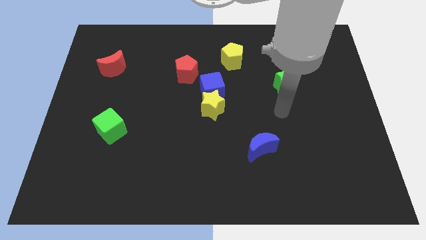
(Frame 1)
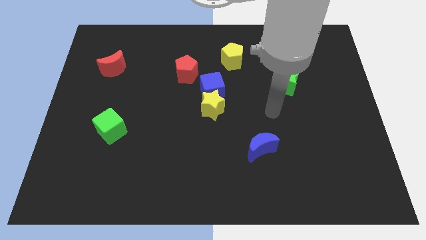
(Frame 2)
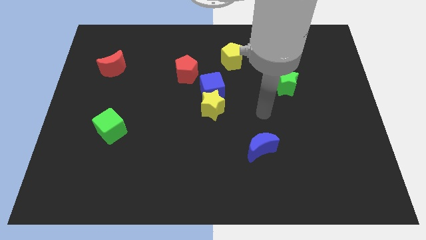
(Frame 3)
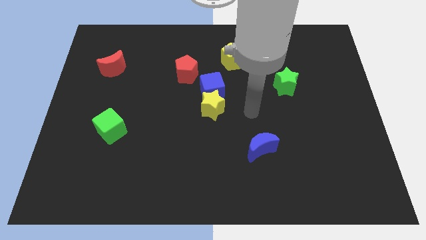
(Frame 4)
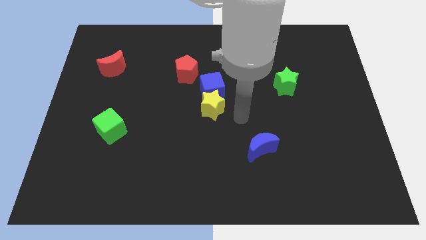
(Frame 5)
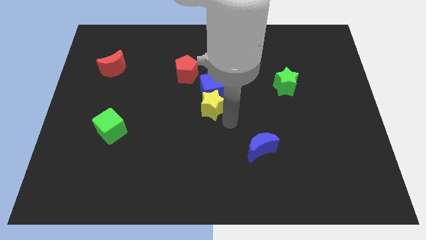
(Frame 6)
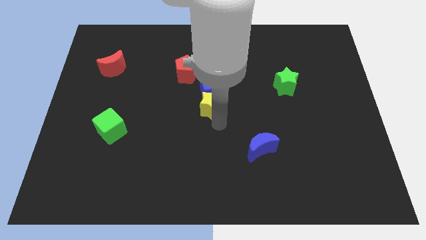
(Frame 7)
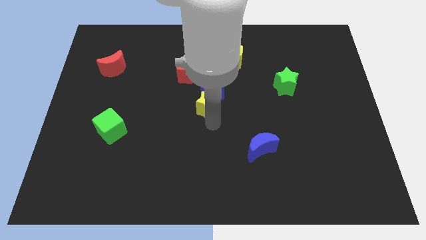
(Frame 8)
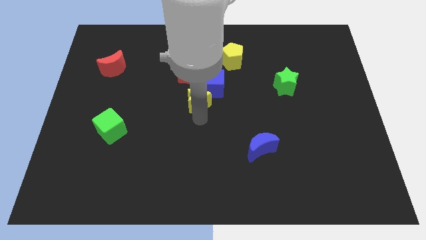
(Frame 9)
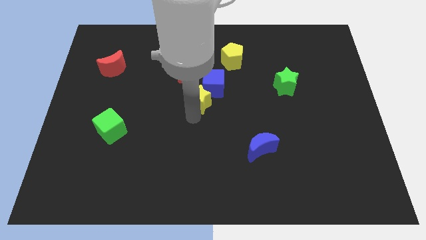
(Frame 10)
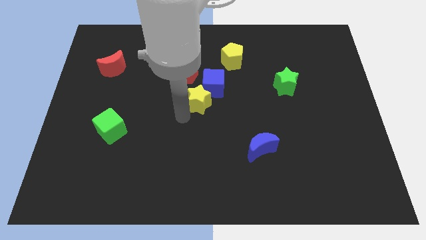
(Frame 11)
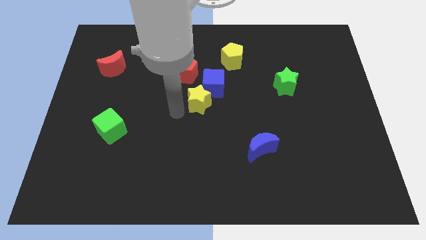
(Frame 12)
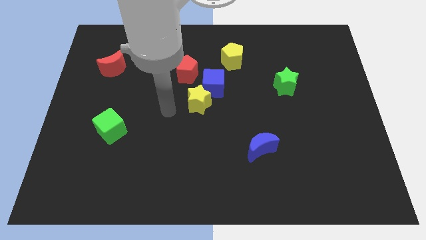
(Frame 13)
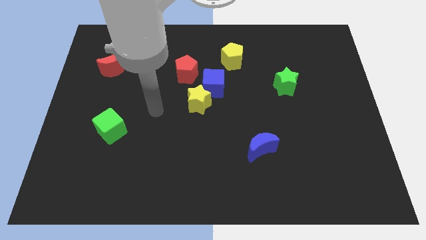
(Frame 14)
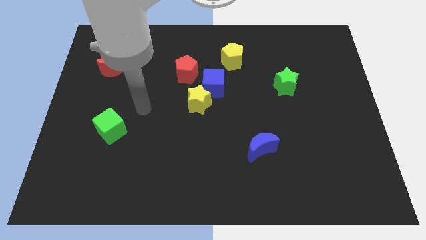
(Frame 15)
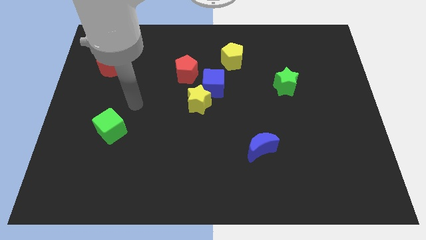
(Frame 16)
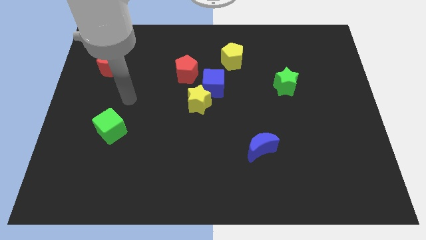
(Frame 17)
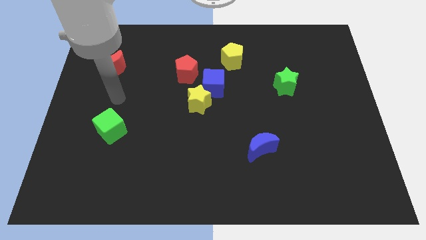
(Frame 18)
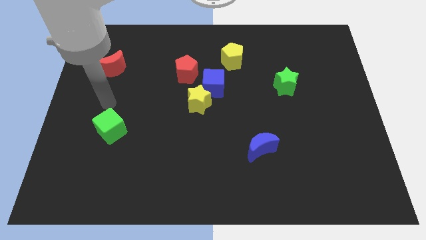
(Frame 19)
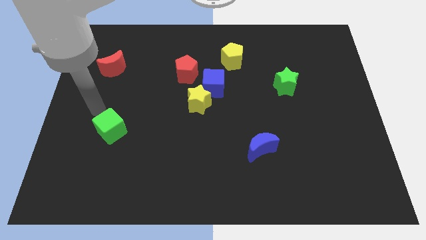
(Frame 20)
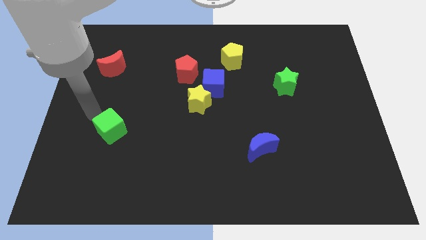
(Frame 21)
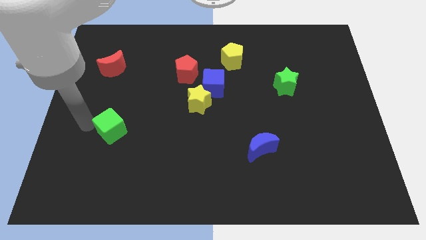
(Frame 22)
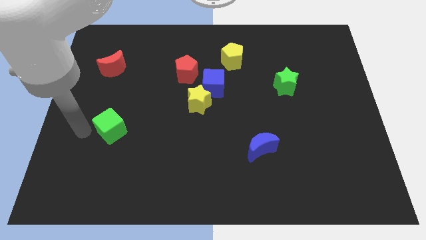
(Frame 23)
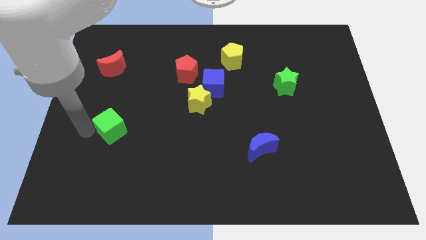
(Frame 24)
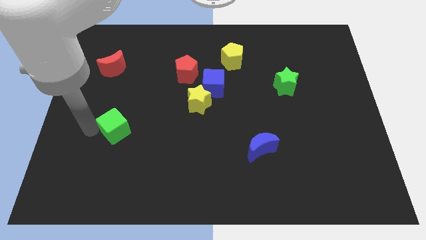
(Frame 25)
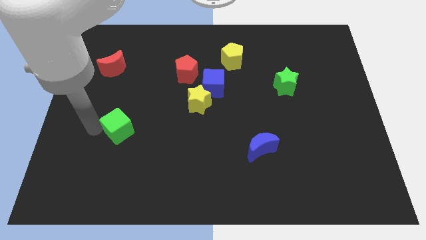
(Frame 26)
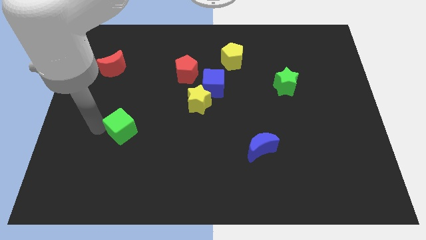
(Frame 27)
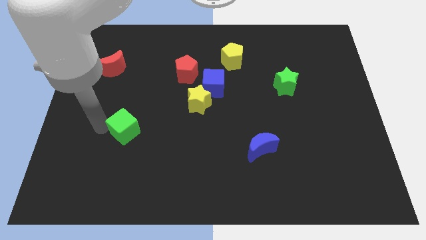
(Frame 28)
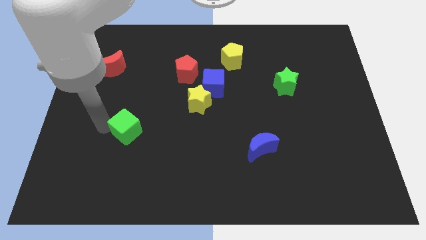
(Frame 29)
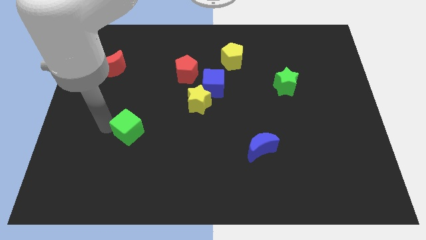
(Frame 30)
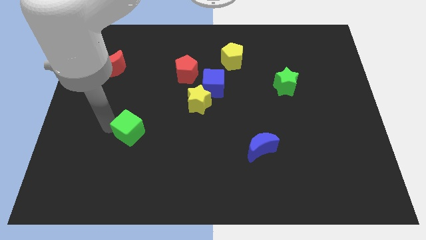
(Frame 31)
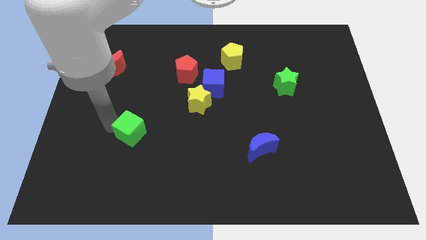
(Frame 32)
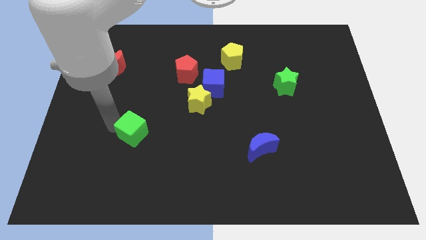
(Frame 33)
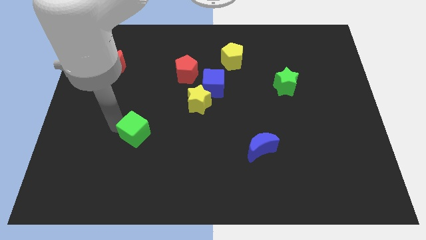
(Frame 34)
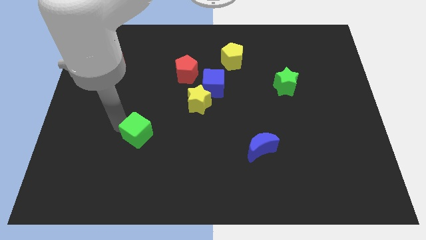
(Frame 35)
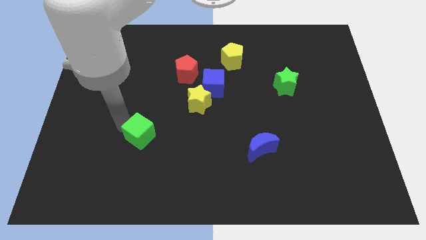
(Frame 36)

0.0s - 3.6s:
slightly slide the green cube to the right

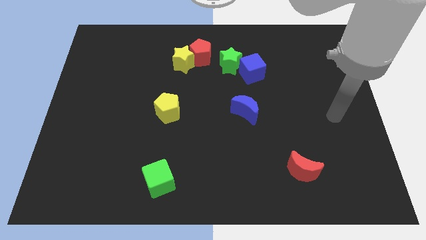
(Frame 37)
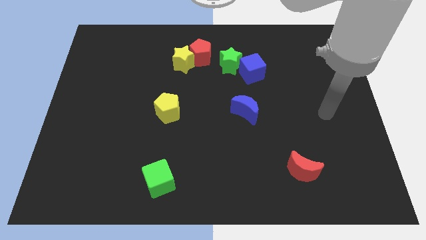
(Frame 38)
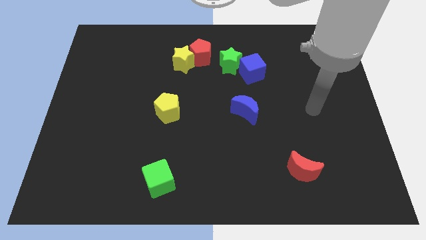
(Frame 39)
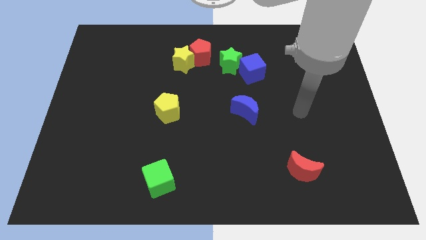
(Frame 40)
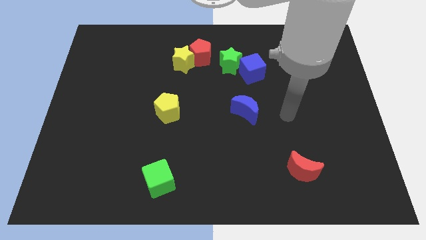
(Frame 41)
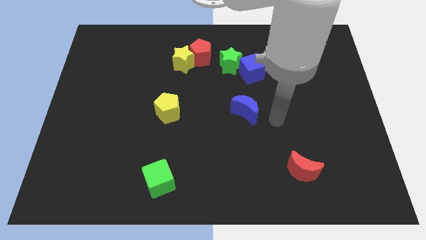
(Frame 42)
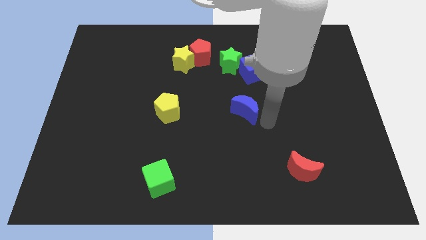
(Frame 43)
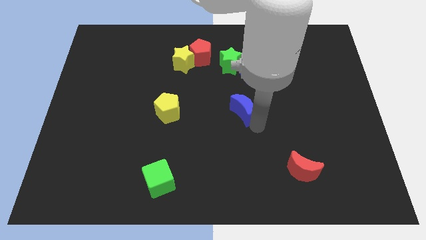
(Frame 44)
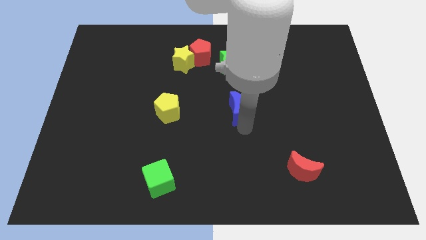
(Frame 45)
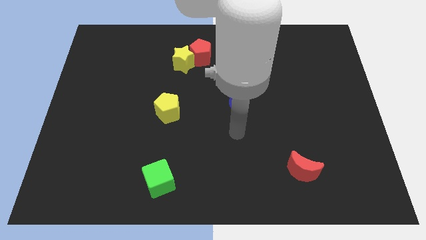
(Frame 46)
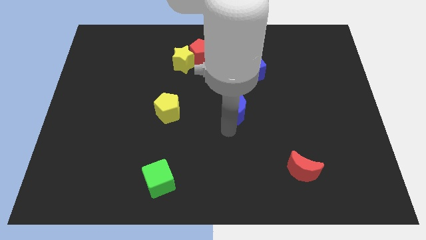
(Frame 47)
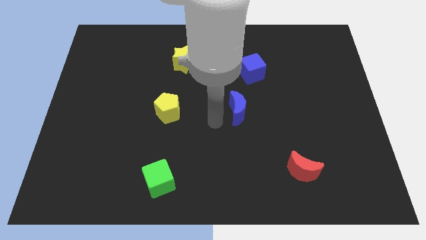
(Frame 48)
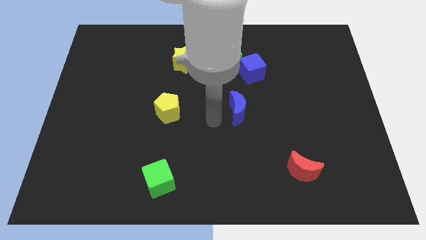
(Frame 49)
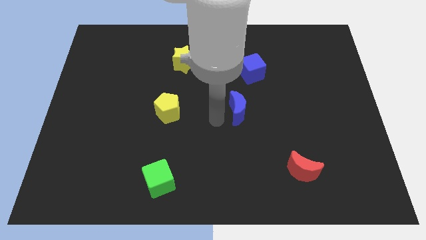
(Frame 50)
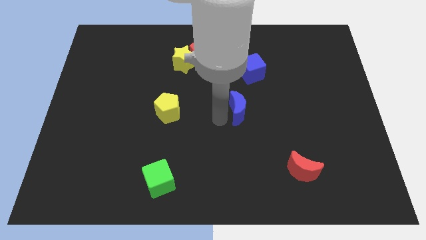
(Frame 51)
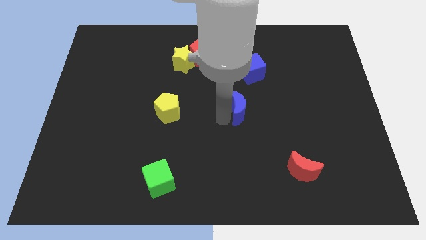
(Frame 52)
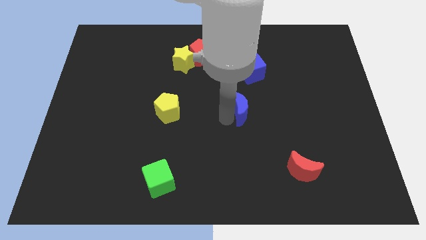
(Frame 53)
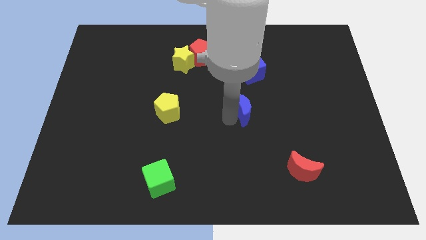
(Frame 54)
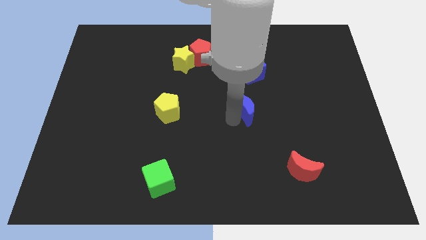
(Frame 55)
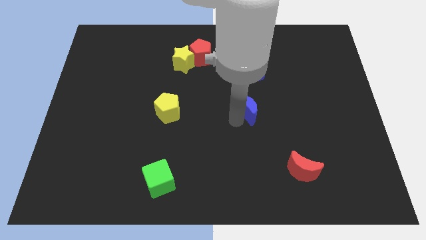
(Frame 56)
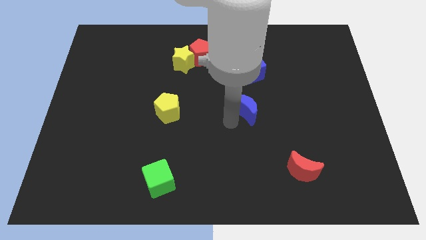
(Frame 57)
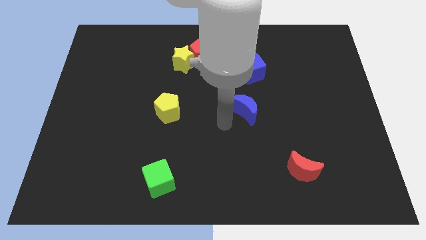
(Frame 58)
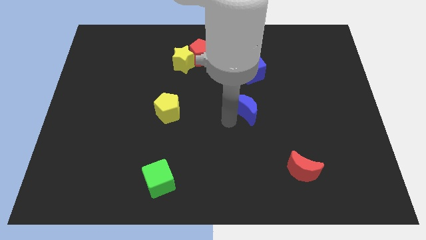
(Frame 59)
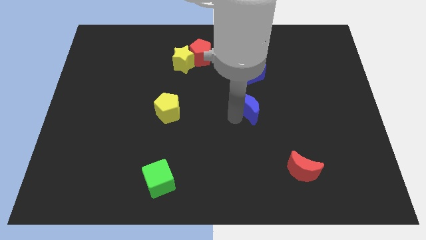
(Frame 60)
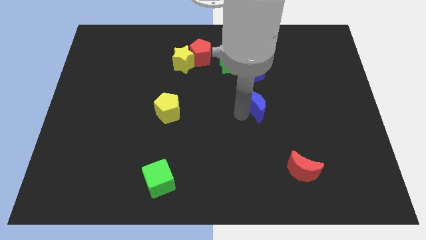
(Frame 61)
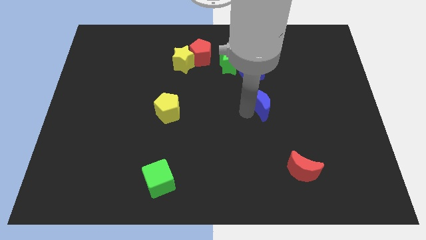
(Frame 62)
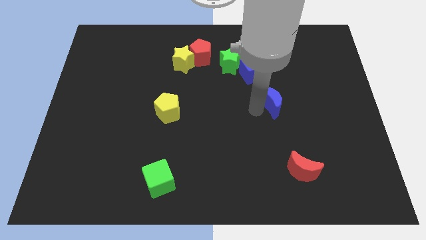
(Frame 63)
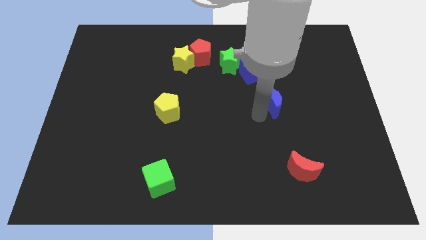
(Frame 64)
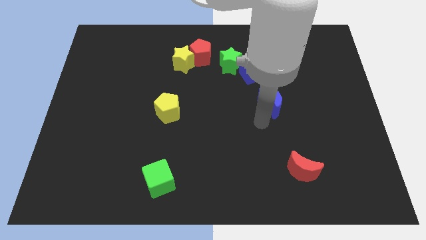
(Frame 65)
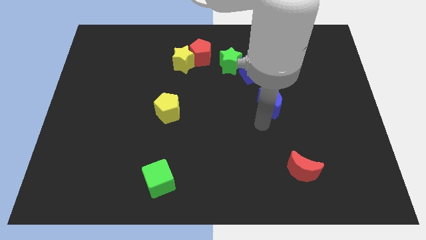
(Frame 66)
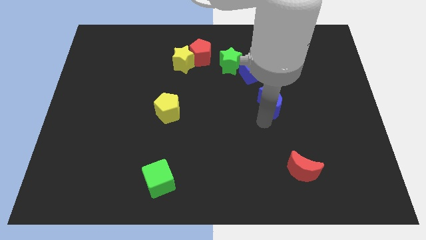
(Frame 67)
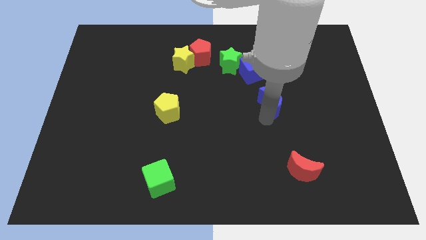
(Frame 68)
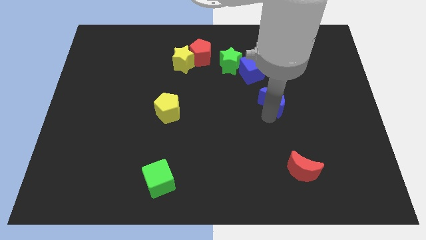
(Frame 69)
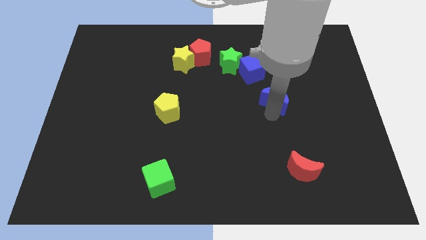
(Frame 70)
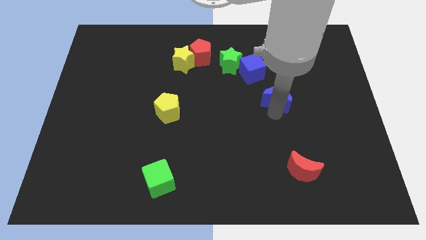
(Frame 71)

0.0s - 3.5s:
move the blue moon a bit upwards and to the right

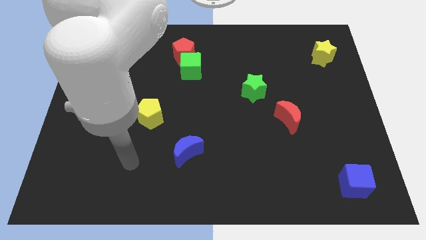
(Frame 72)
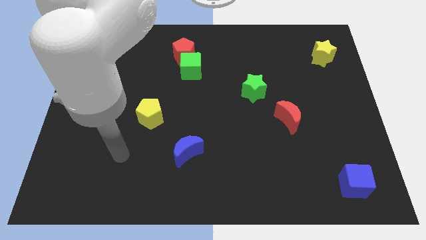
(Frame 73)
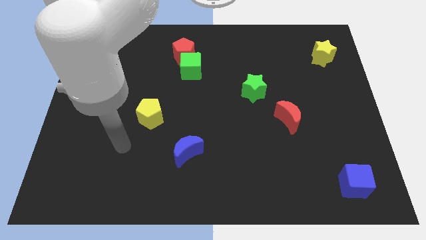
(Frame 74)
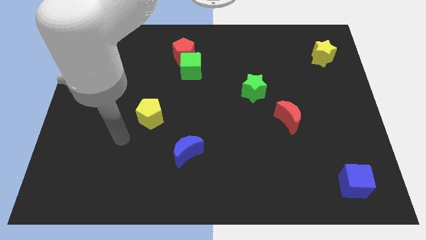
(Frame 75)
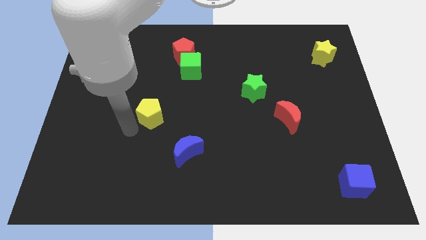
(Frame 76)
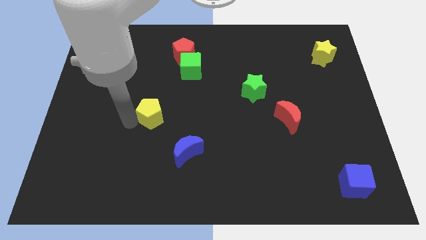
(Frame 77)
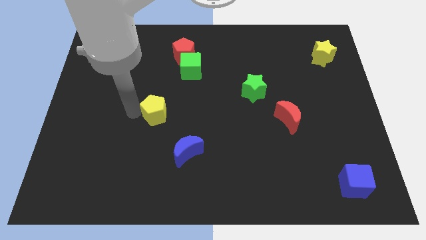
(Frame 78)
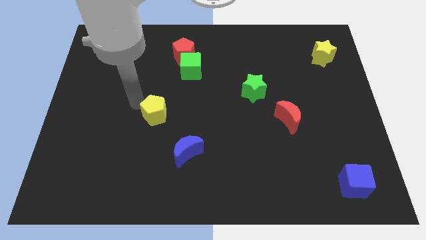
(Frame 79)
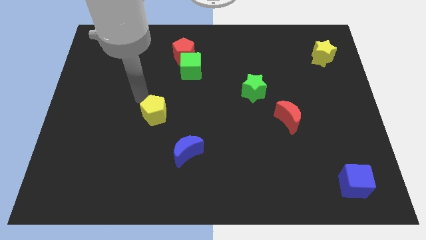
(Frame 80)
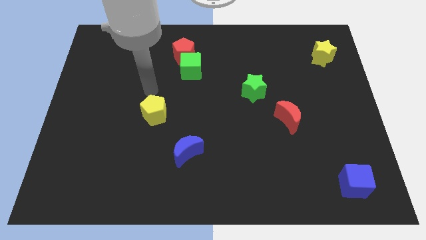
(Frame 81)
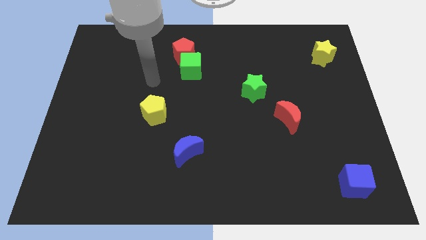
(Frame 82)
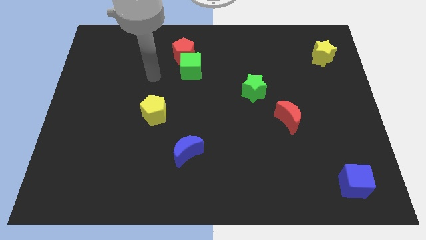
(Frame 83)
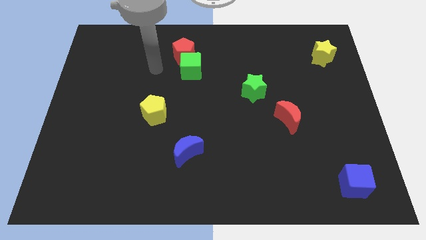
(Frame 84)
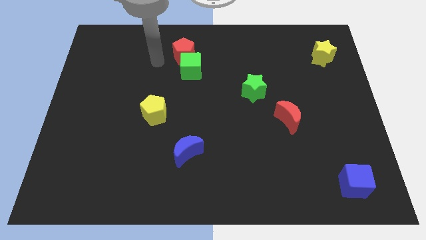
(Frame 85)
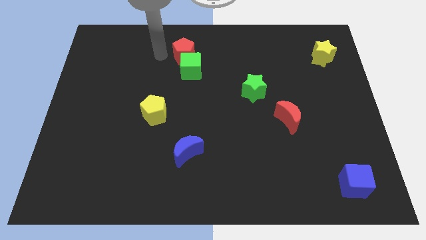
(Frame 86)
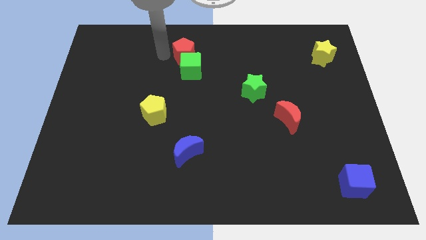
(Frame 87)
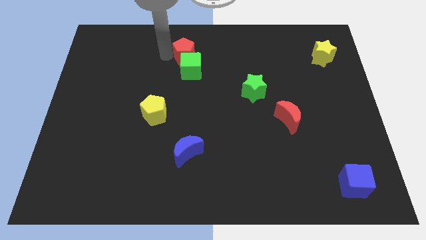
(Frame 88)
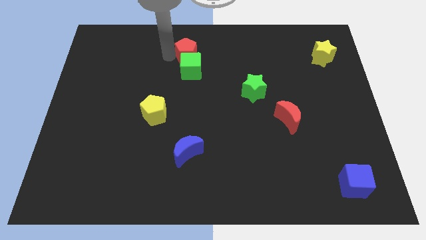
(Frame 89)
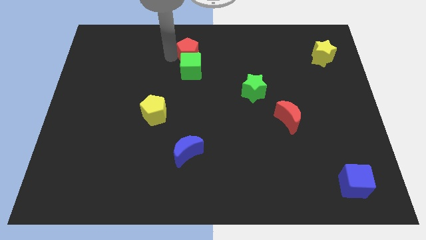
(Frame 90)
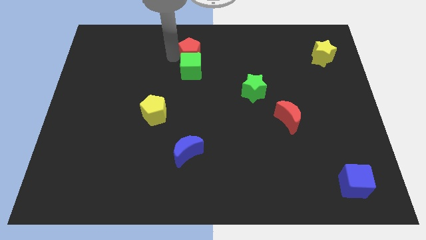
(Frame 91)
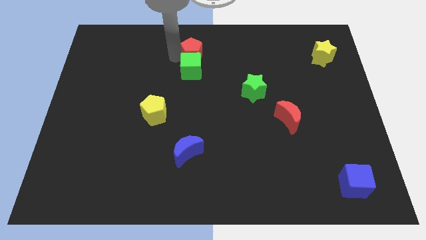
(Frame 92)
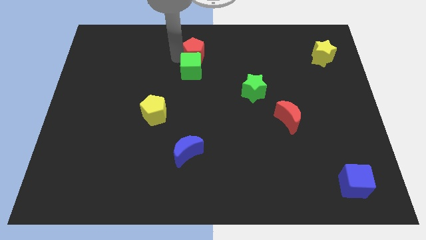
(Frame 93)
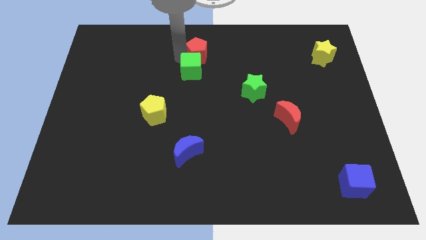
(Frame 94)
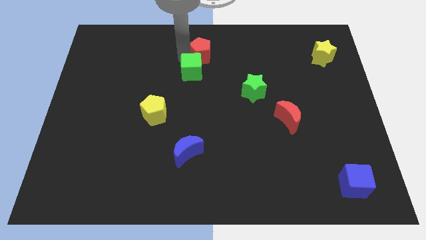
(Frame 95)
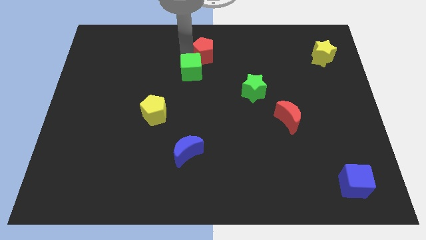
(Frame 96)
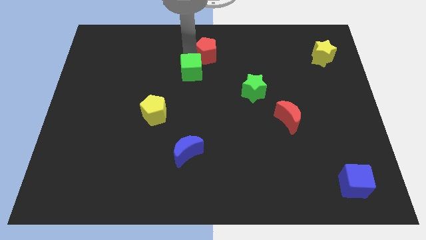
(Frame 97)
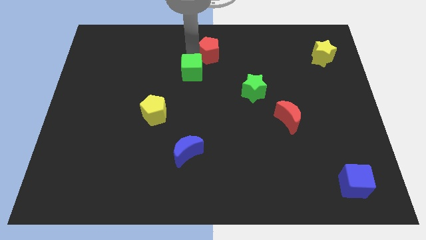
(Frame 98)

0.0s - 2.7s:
push the red pentagon to the right a little bit
